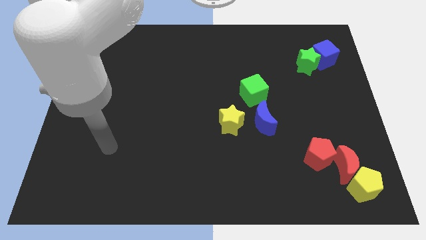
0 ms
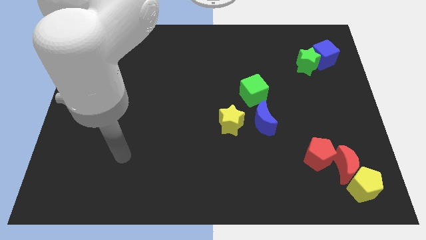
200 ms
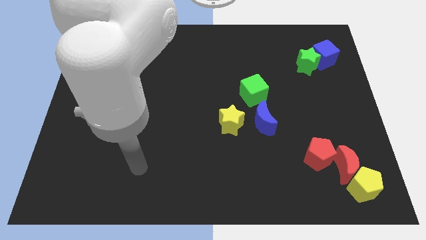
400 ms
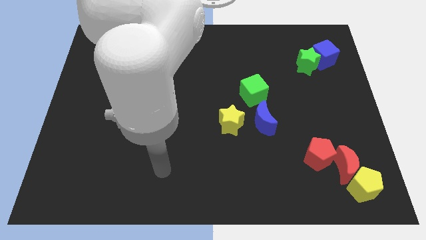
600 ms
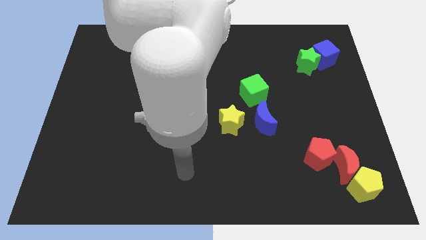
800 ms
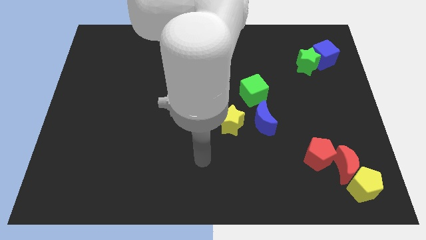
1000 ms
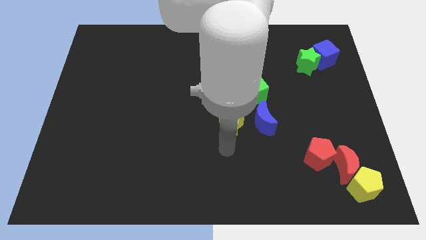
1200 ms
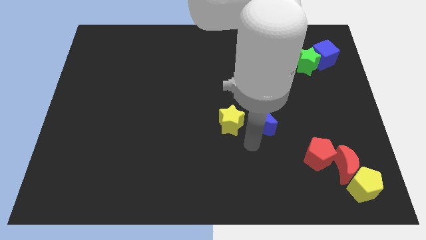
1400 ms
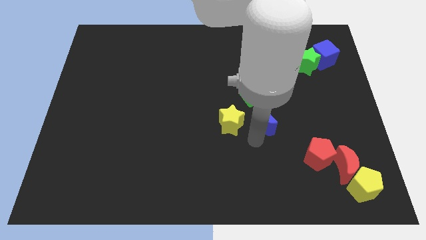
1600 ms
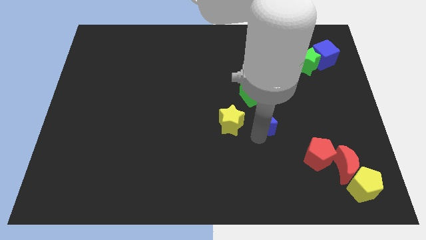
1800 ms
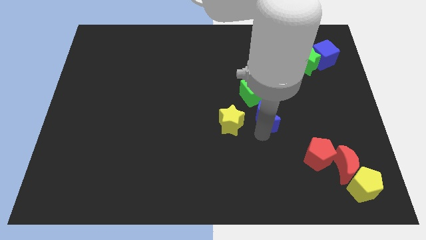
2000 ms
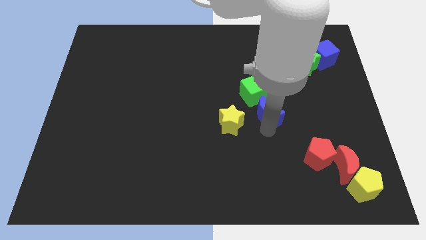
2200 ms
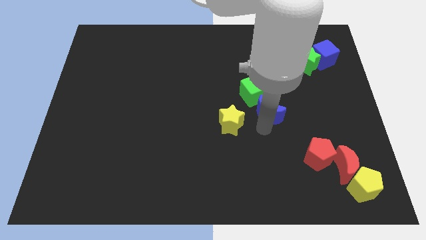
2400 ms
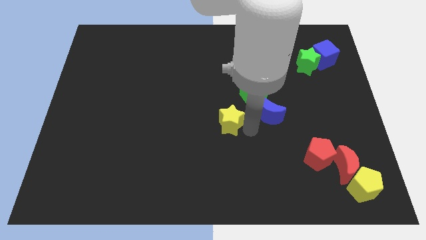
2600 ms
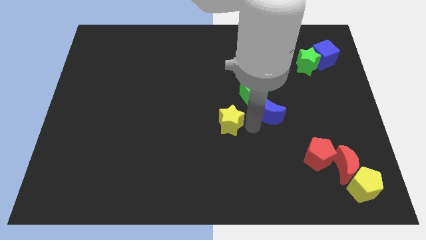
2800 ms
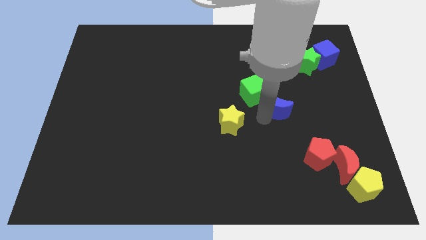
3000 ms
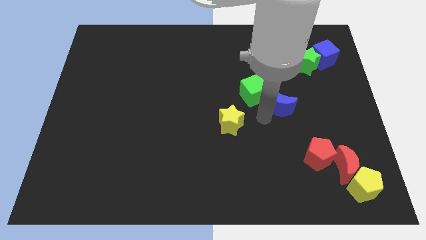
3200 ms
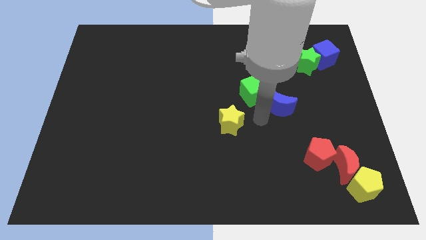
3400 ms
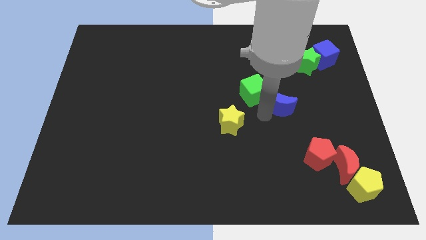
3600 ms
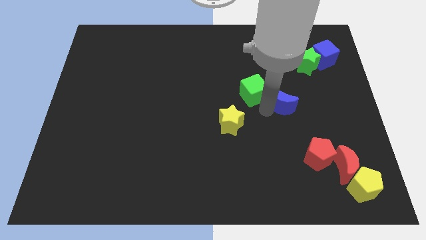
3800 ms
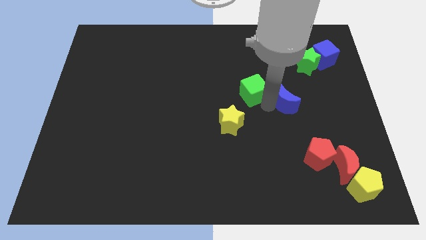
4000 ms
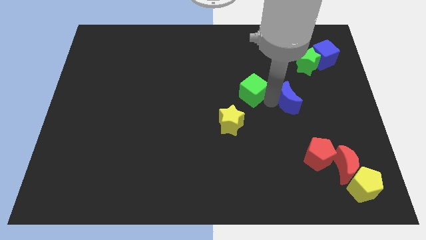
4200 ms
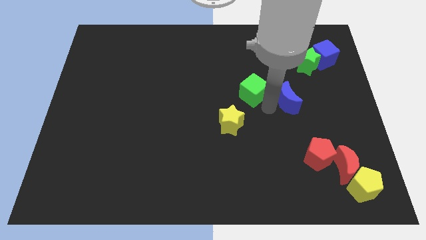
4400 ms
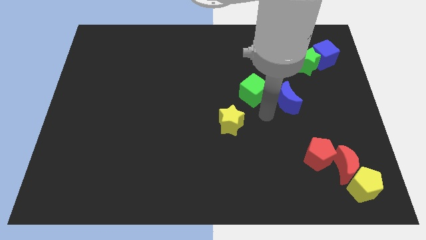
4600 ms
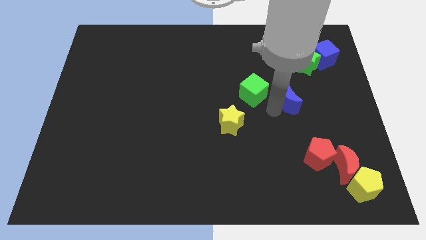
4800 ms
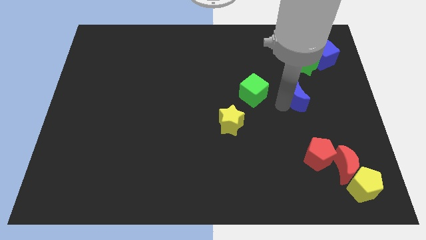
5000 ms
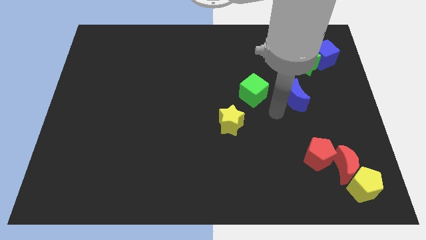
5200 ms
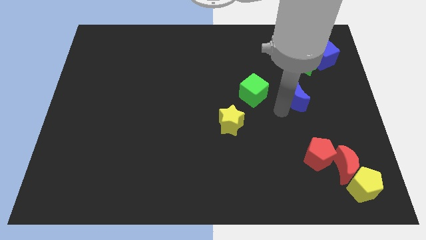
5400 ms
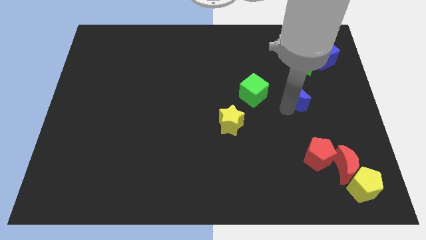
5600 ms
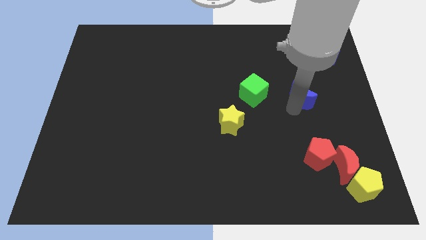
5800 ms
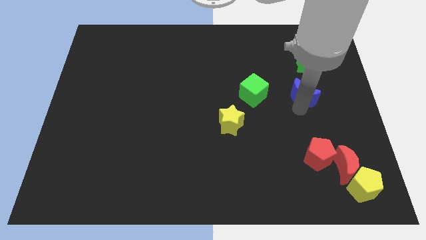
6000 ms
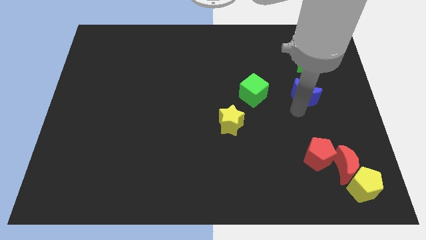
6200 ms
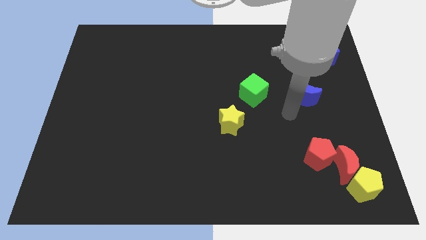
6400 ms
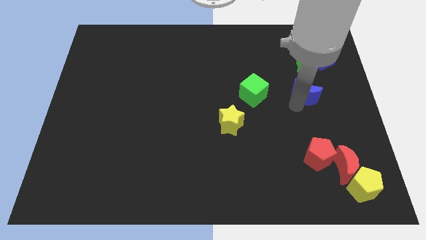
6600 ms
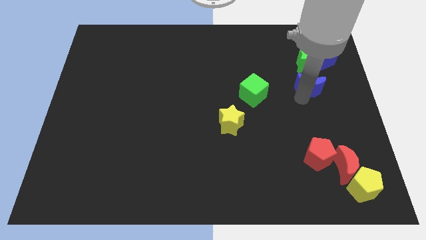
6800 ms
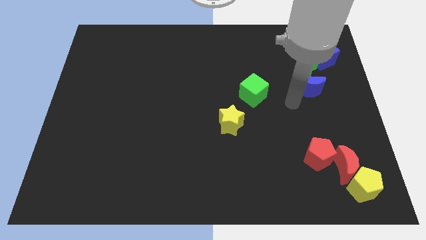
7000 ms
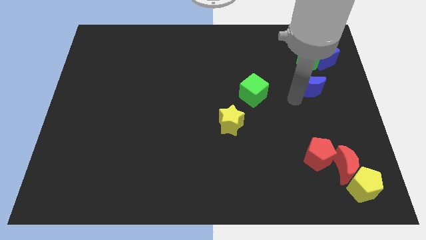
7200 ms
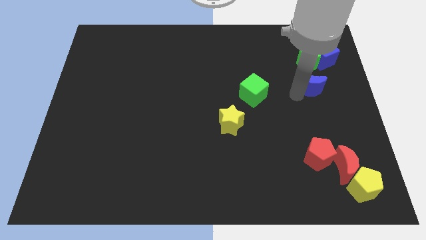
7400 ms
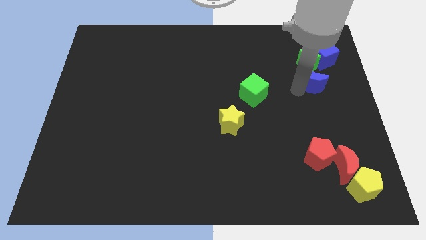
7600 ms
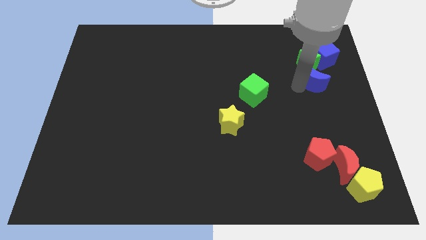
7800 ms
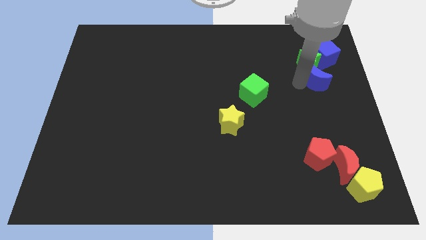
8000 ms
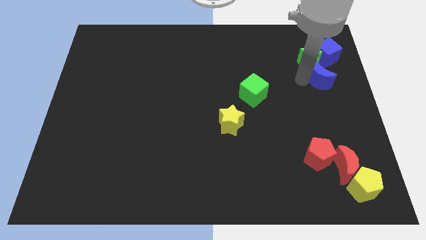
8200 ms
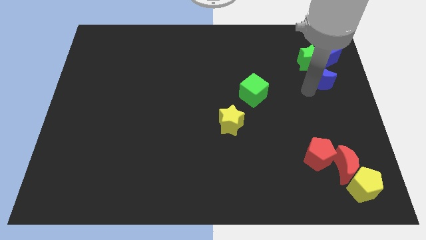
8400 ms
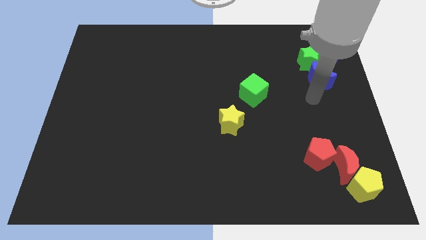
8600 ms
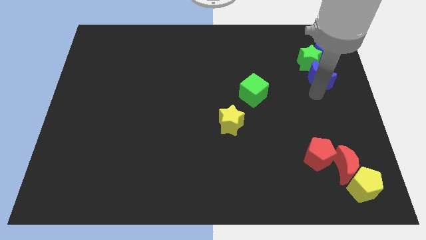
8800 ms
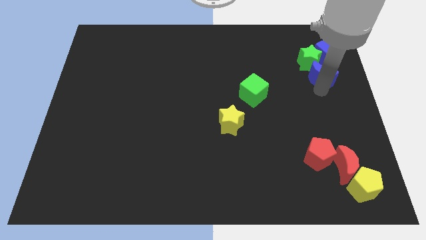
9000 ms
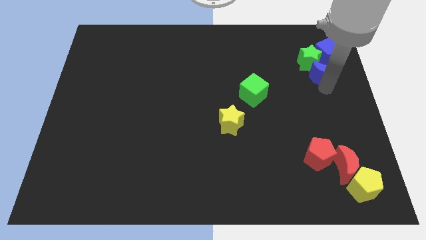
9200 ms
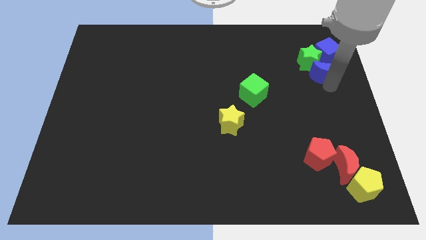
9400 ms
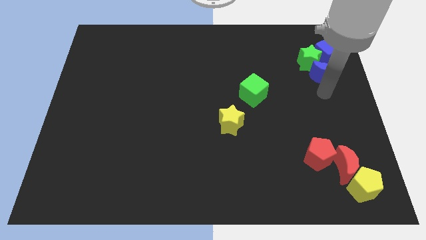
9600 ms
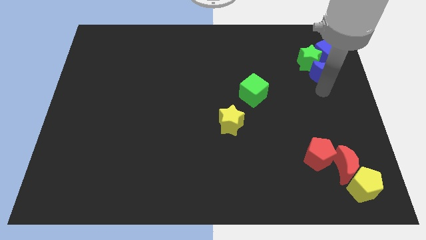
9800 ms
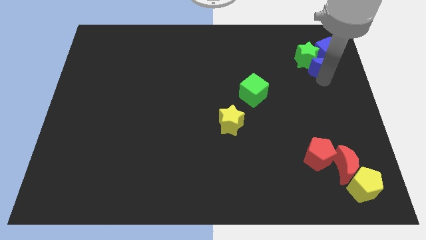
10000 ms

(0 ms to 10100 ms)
slide the blue moon next to the blue cube

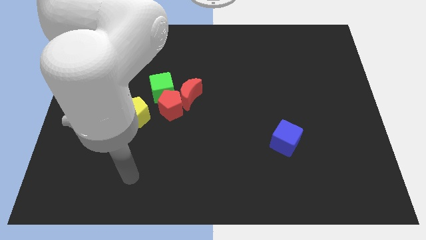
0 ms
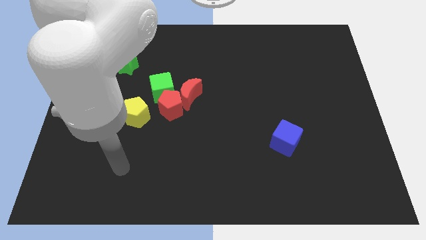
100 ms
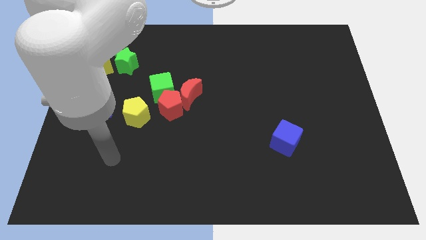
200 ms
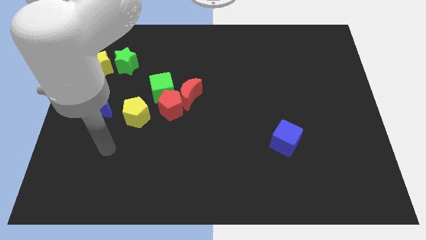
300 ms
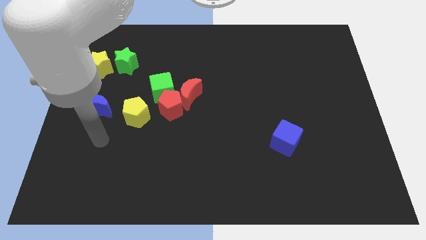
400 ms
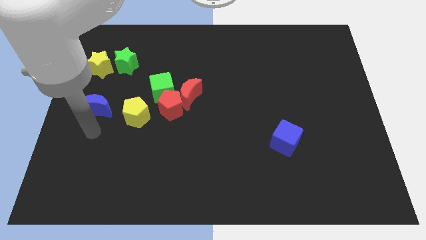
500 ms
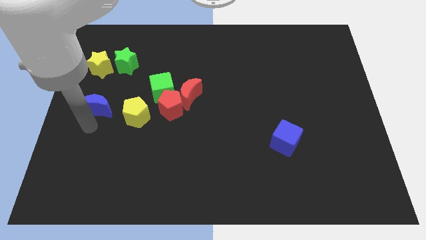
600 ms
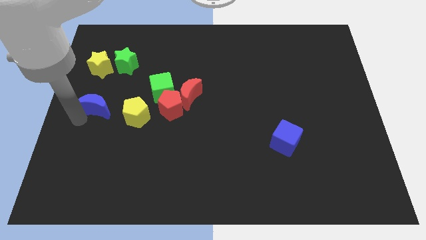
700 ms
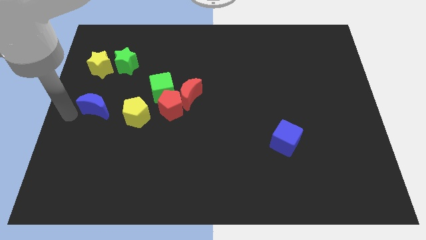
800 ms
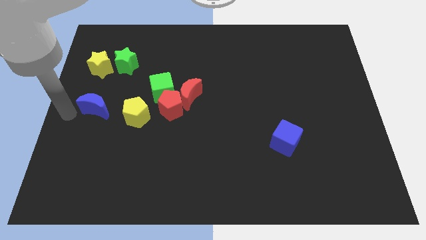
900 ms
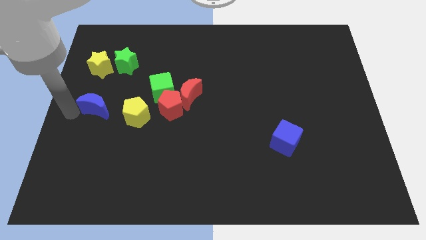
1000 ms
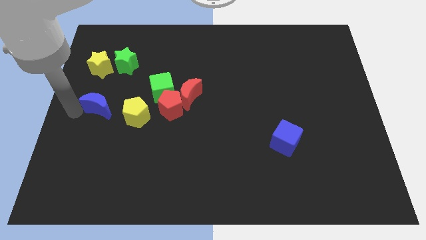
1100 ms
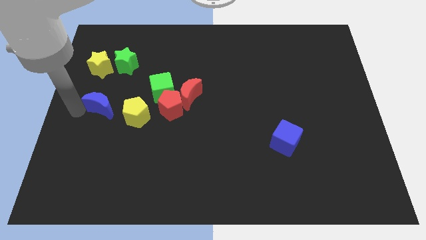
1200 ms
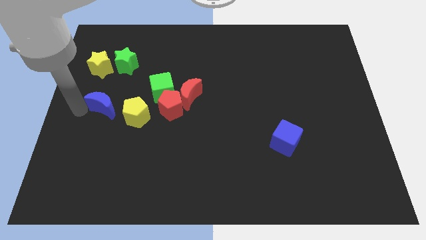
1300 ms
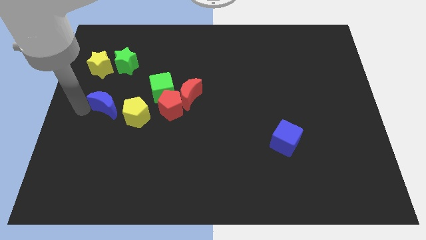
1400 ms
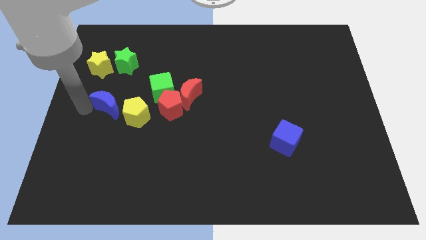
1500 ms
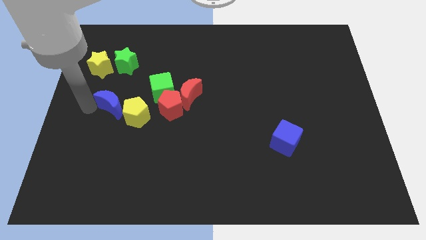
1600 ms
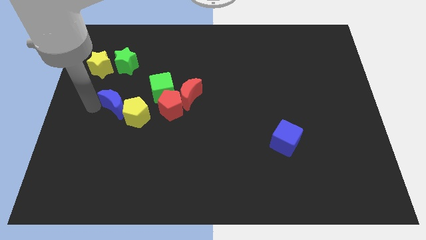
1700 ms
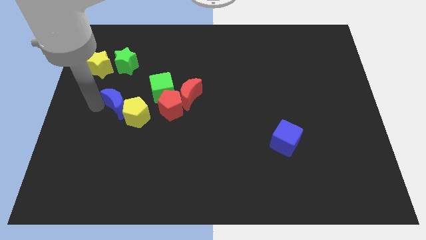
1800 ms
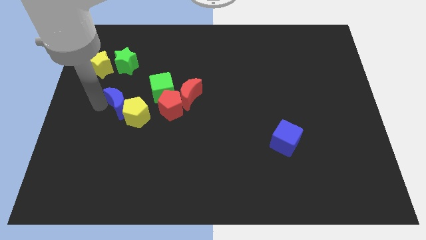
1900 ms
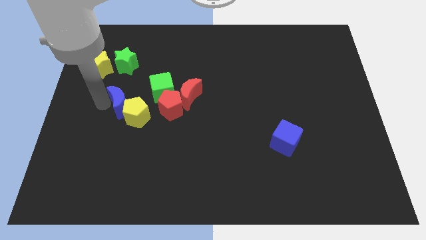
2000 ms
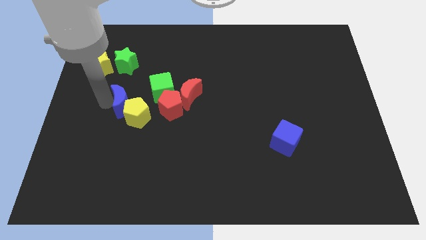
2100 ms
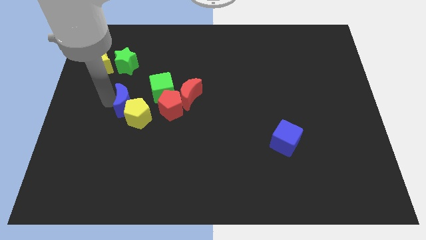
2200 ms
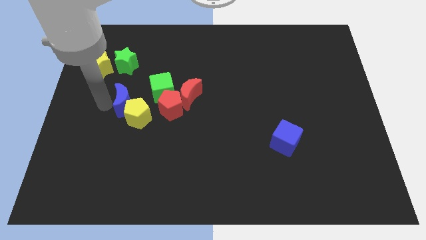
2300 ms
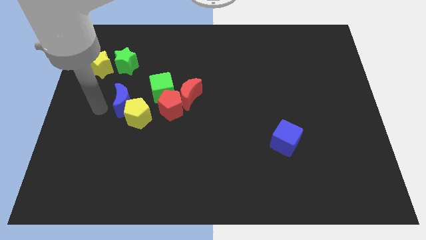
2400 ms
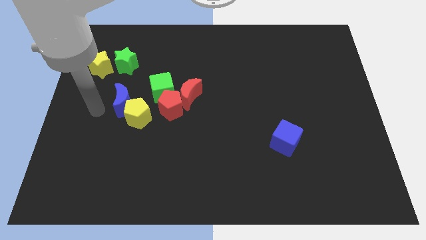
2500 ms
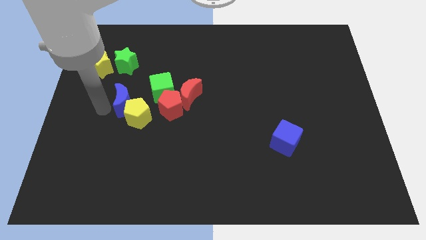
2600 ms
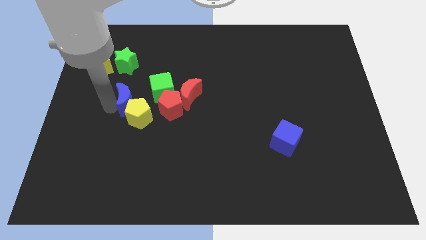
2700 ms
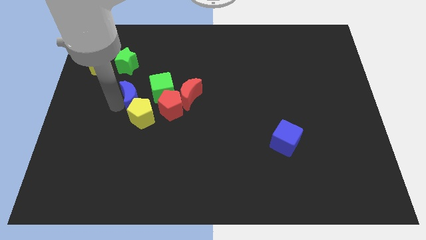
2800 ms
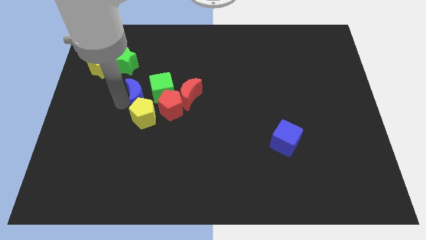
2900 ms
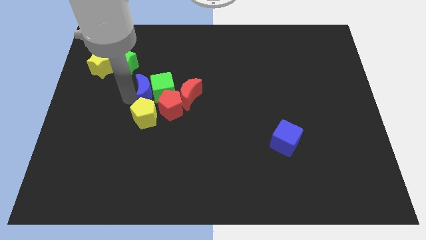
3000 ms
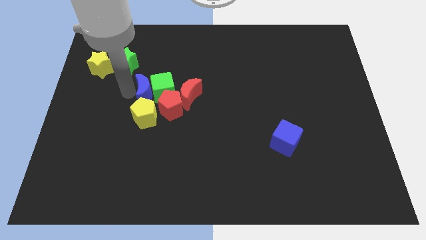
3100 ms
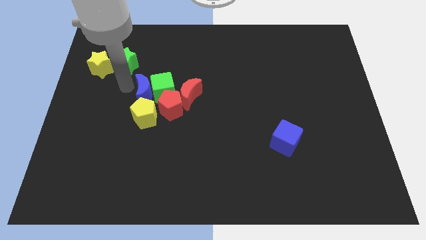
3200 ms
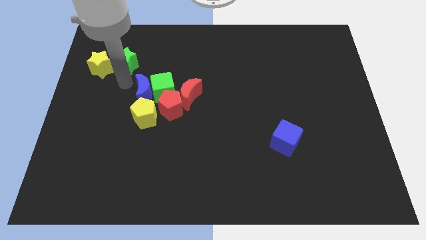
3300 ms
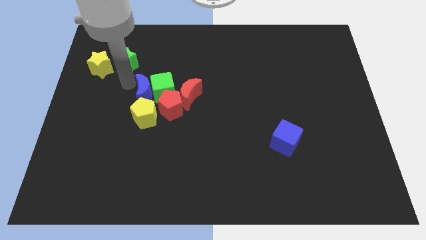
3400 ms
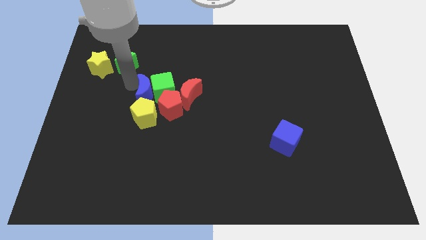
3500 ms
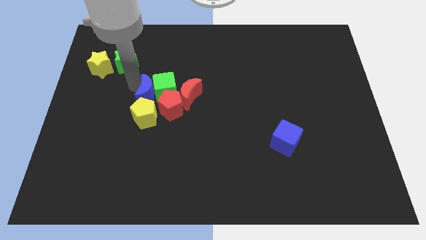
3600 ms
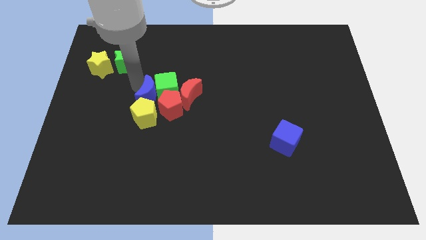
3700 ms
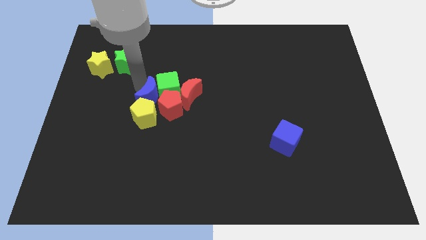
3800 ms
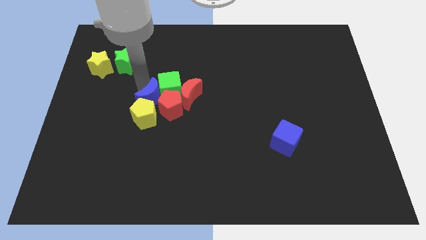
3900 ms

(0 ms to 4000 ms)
move the blue moon towards the red pentagon
